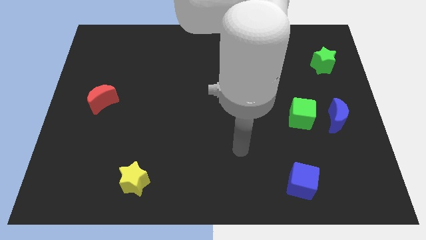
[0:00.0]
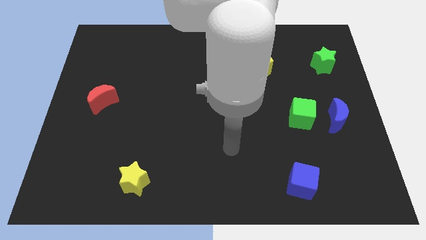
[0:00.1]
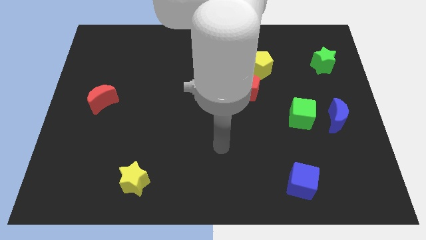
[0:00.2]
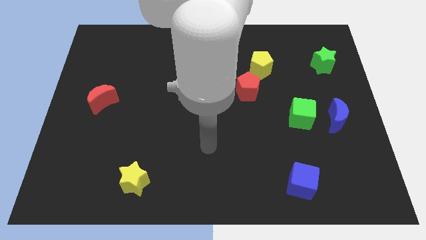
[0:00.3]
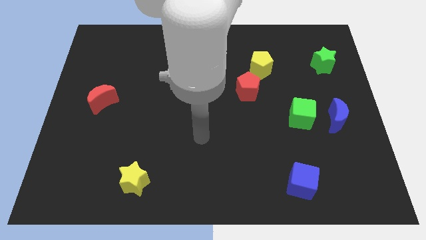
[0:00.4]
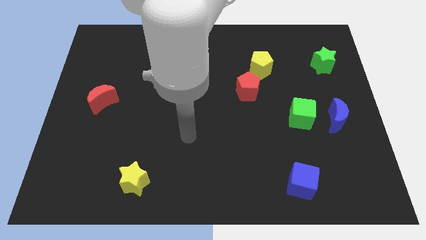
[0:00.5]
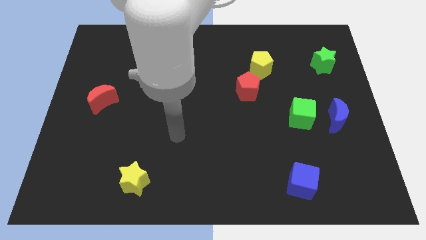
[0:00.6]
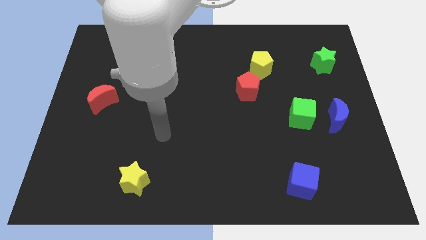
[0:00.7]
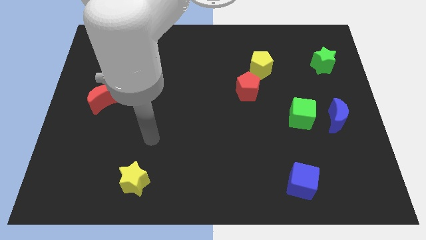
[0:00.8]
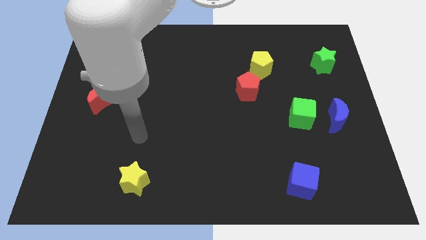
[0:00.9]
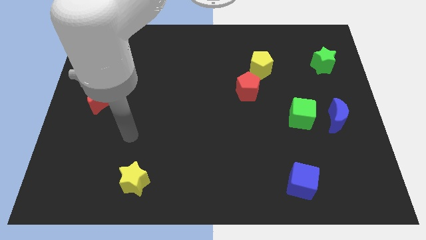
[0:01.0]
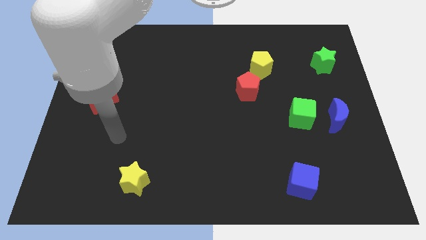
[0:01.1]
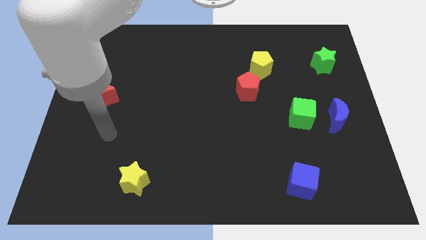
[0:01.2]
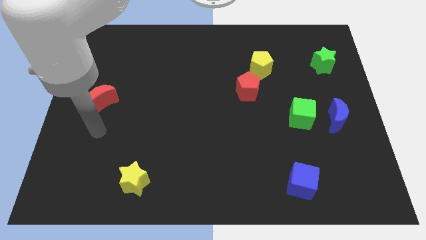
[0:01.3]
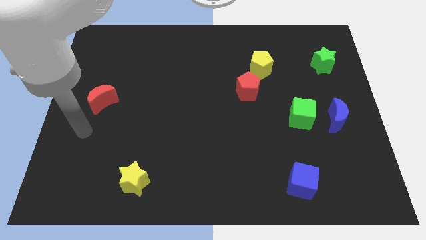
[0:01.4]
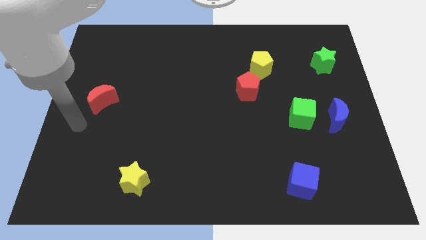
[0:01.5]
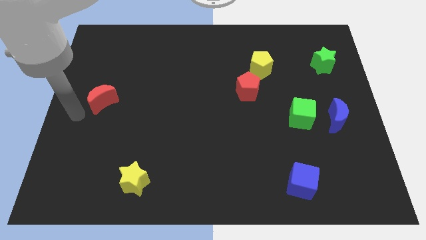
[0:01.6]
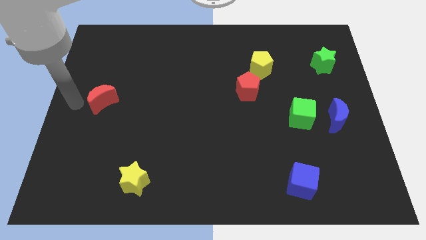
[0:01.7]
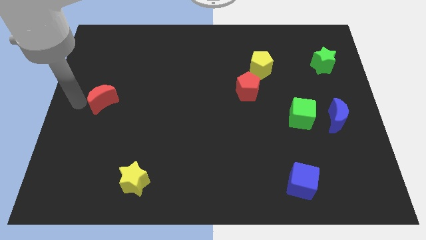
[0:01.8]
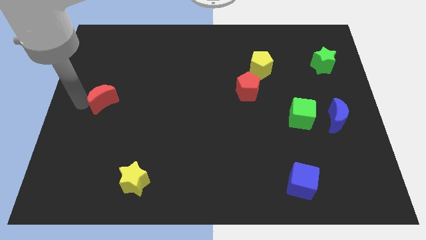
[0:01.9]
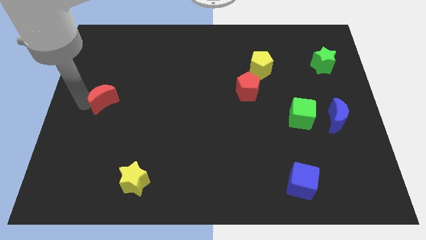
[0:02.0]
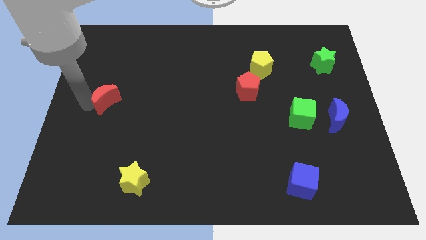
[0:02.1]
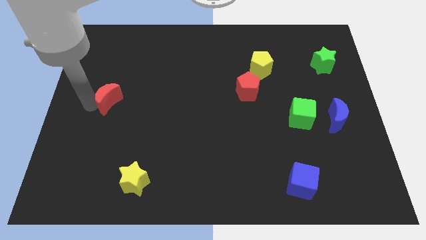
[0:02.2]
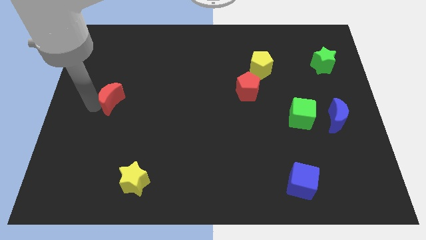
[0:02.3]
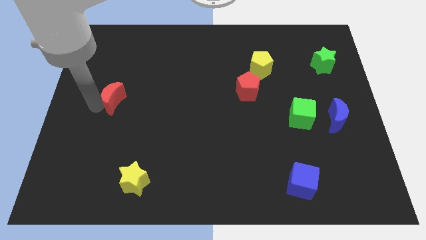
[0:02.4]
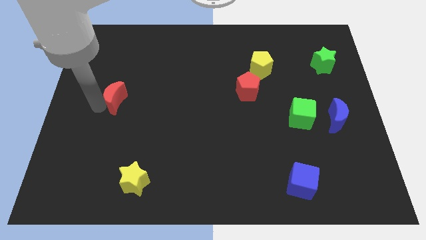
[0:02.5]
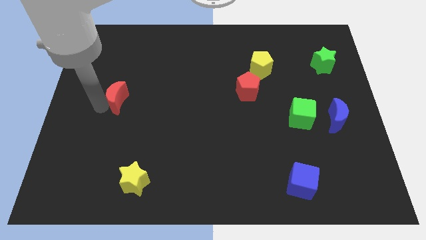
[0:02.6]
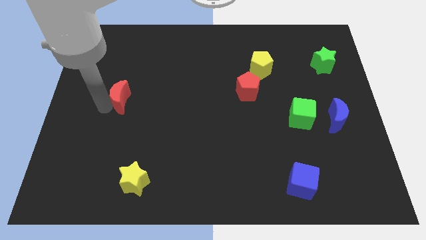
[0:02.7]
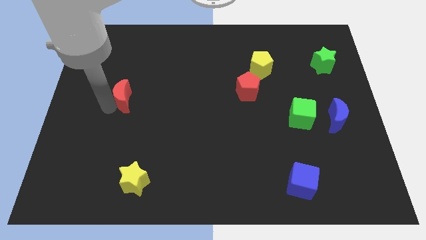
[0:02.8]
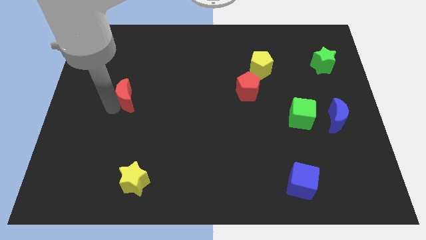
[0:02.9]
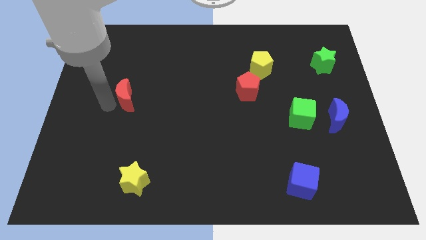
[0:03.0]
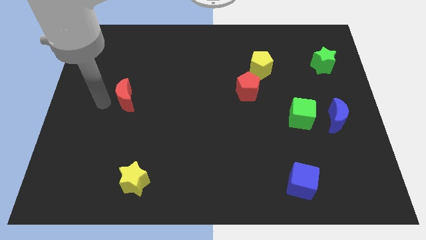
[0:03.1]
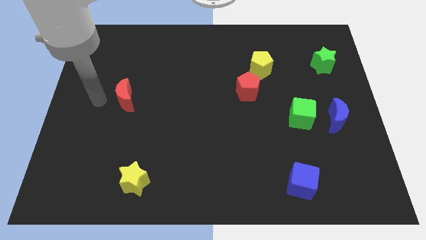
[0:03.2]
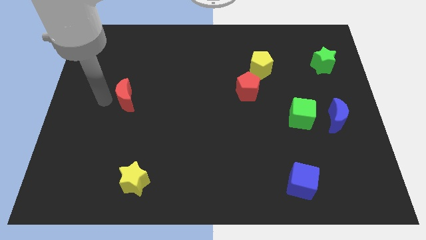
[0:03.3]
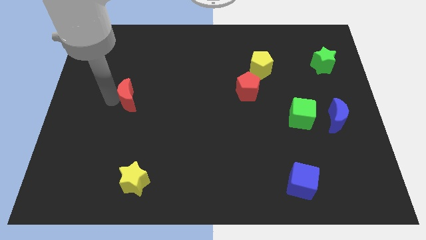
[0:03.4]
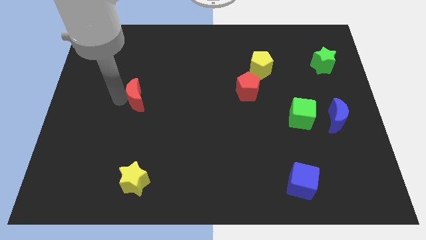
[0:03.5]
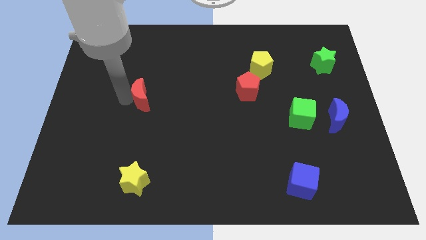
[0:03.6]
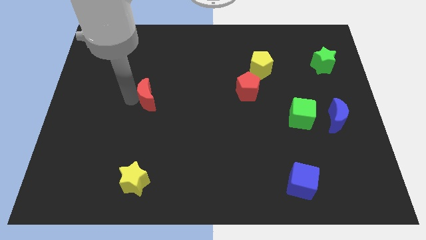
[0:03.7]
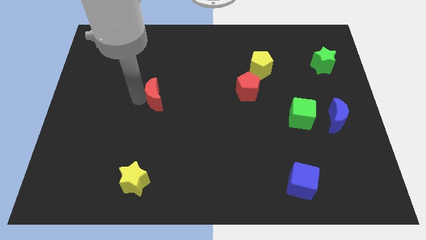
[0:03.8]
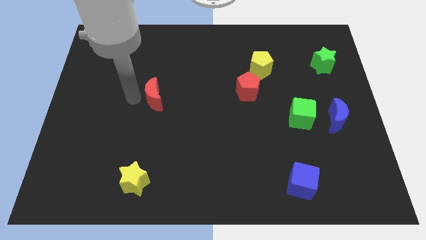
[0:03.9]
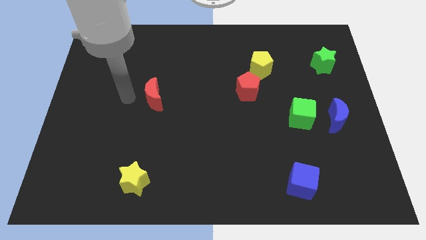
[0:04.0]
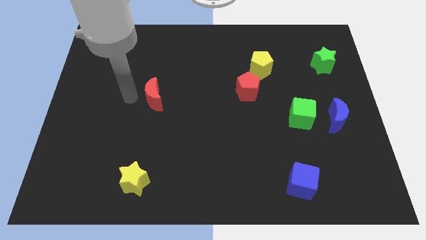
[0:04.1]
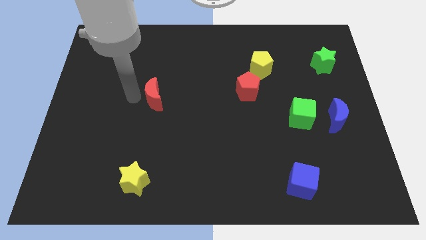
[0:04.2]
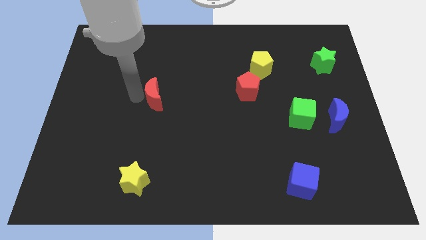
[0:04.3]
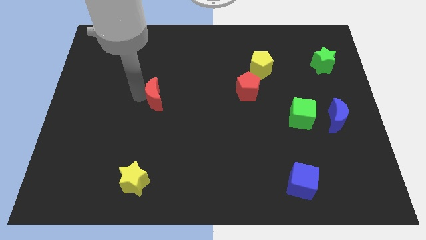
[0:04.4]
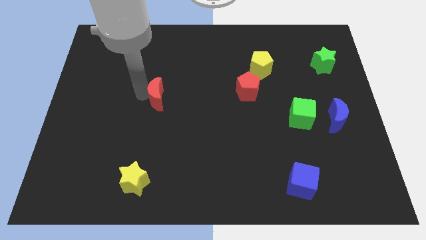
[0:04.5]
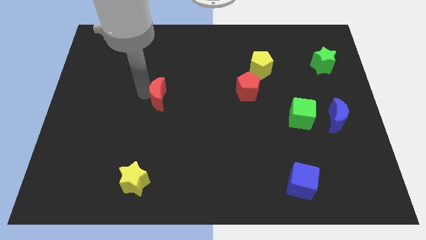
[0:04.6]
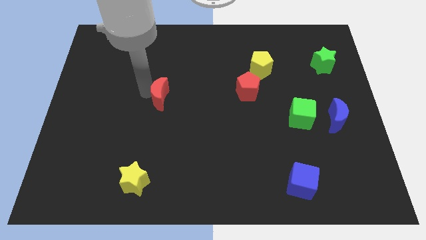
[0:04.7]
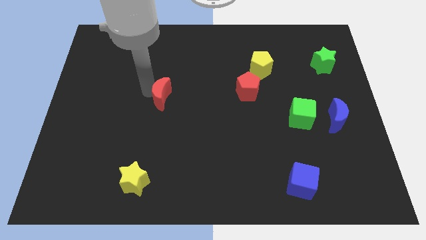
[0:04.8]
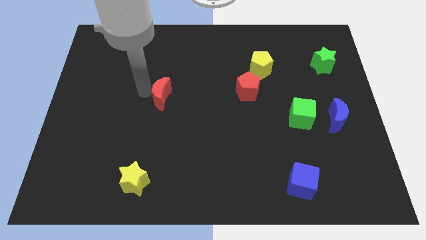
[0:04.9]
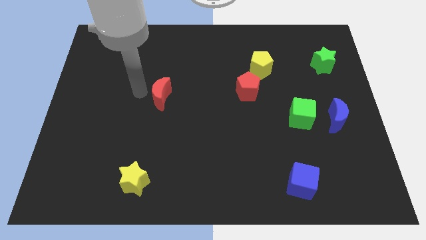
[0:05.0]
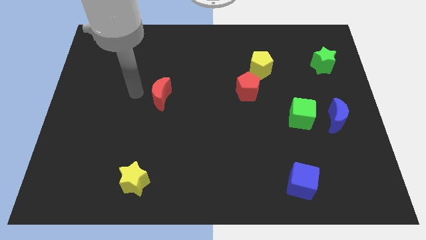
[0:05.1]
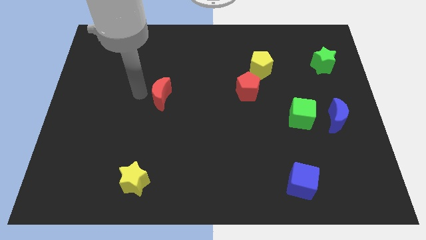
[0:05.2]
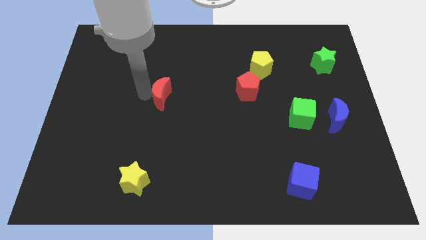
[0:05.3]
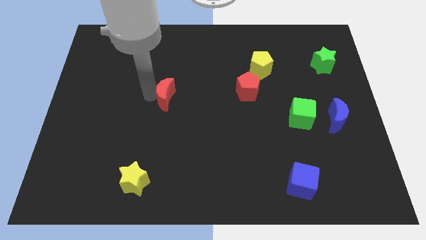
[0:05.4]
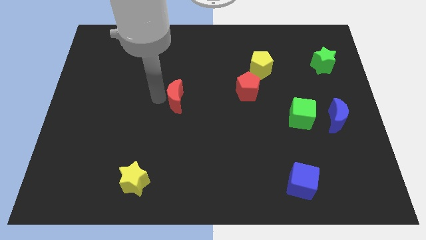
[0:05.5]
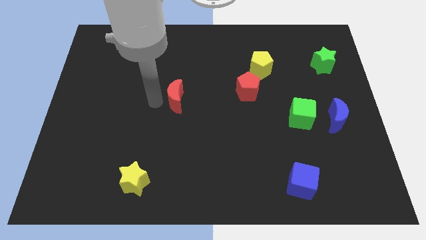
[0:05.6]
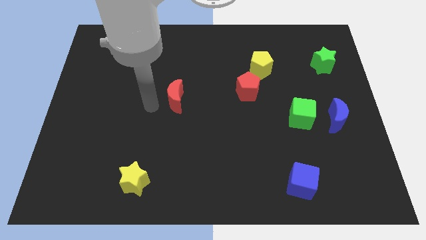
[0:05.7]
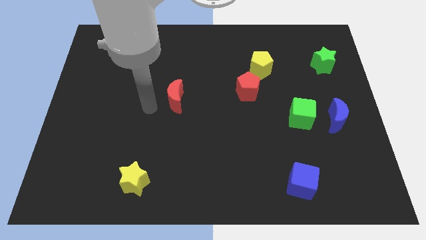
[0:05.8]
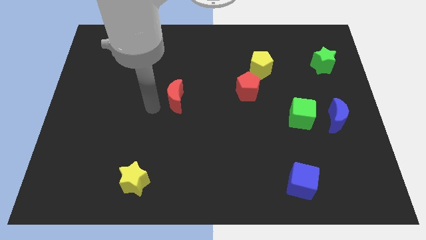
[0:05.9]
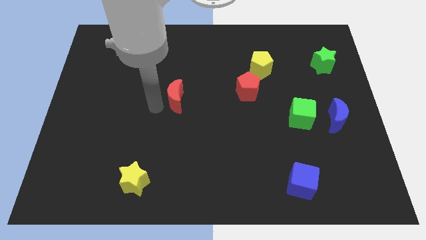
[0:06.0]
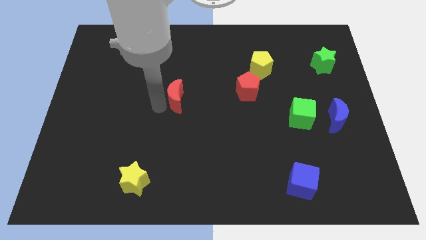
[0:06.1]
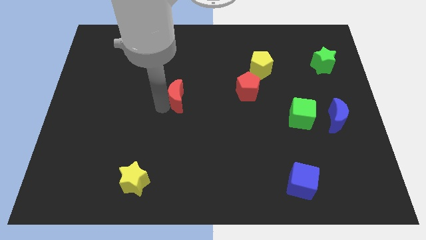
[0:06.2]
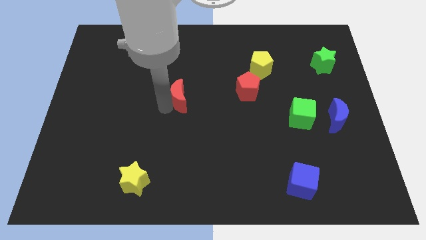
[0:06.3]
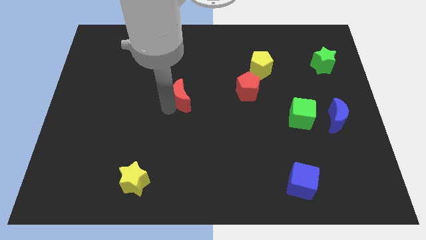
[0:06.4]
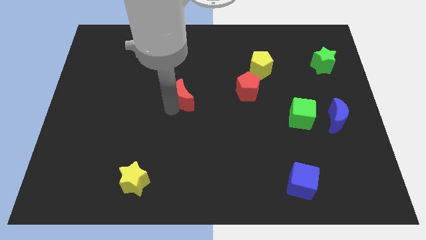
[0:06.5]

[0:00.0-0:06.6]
put the red moon to the left side of the red pentagon

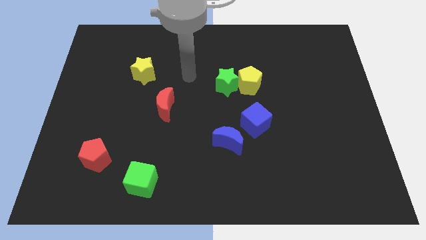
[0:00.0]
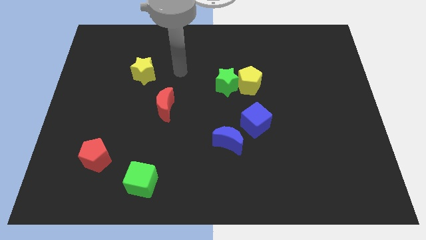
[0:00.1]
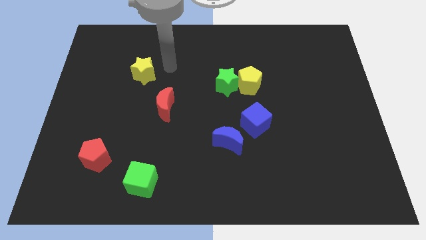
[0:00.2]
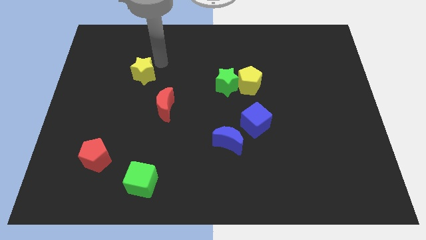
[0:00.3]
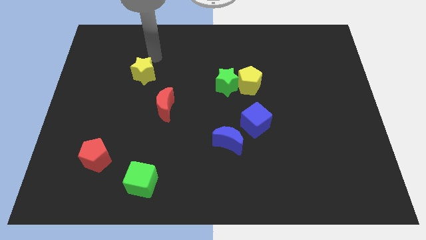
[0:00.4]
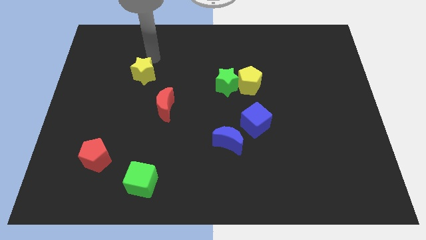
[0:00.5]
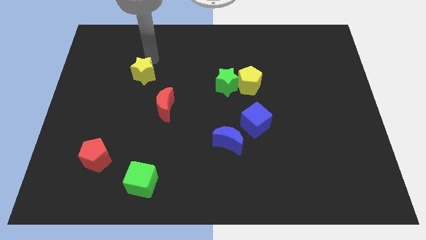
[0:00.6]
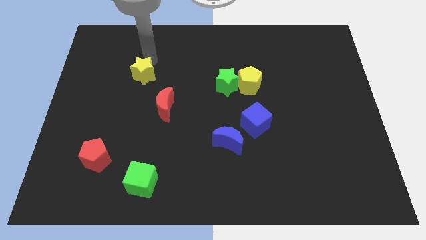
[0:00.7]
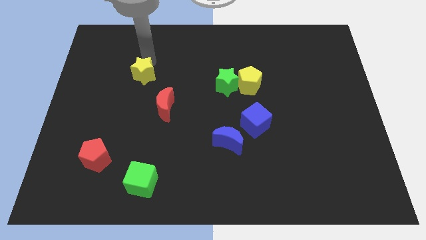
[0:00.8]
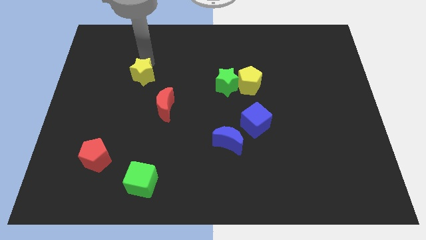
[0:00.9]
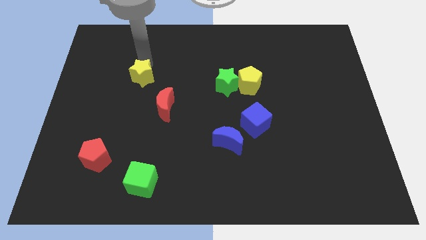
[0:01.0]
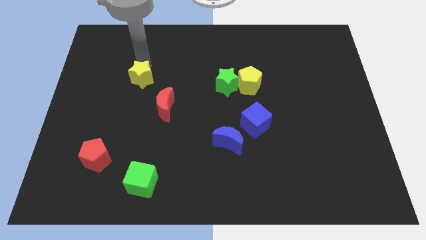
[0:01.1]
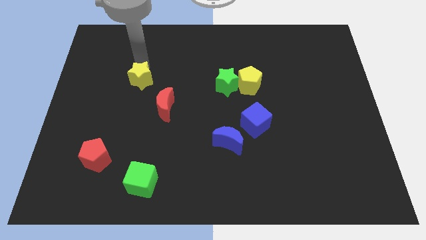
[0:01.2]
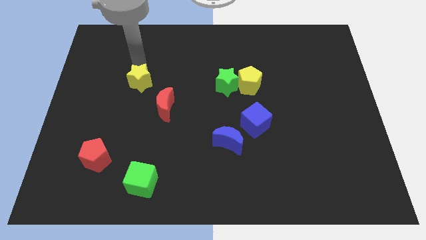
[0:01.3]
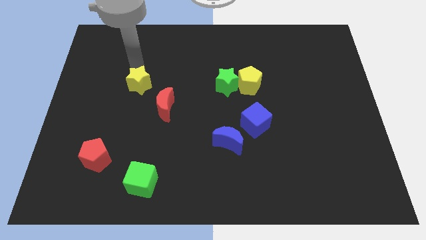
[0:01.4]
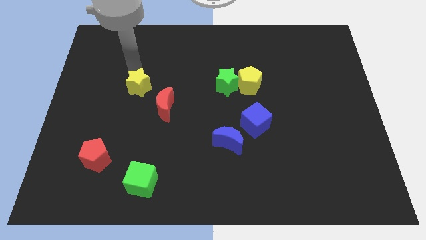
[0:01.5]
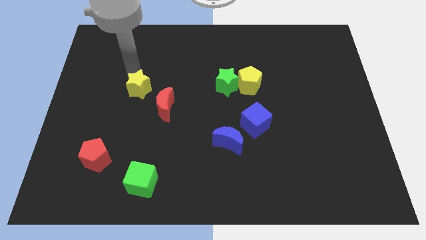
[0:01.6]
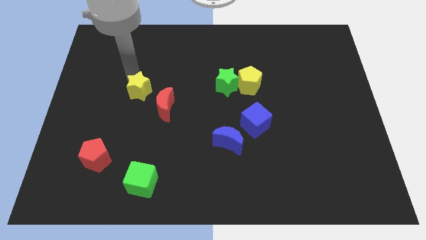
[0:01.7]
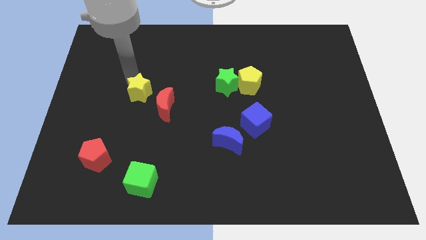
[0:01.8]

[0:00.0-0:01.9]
push the yellow star to the left of the red moon
